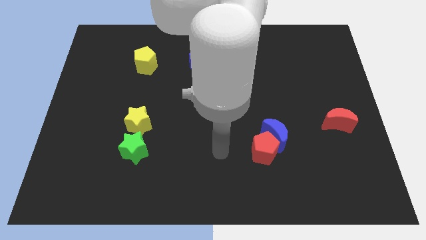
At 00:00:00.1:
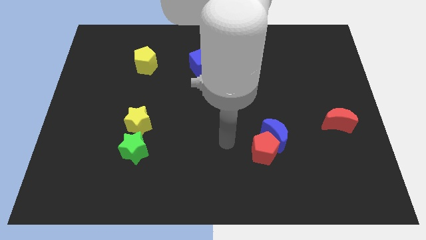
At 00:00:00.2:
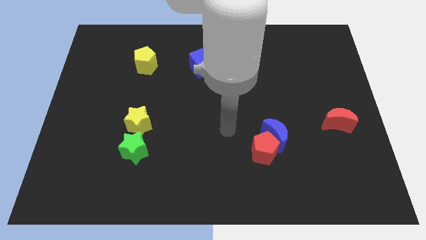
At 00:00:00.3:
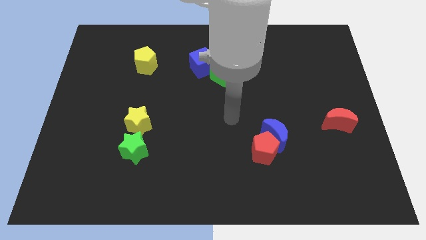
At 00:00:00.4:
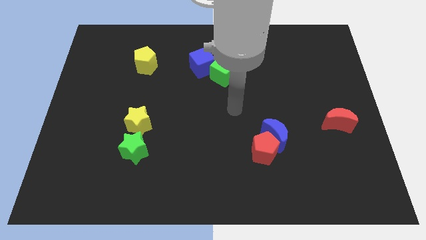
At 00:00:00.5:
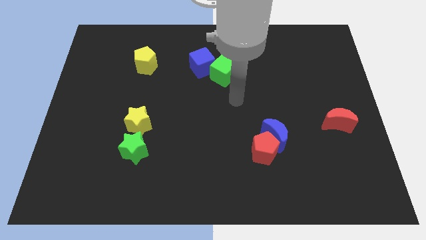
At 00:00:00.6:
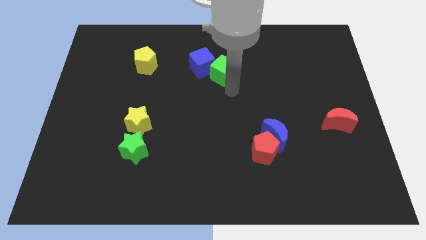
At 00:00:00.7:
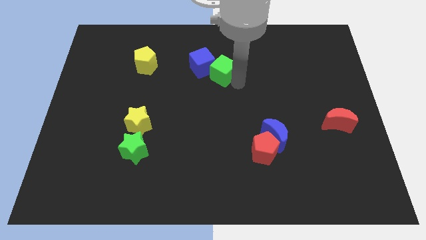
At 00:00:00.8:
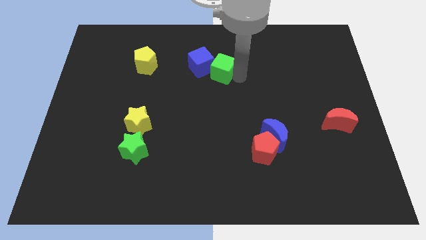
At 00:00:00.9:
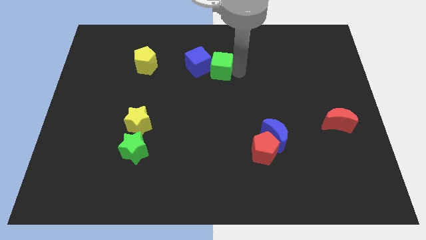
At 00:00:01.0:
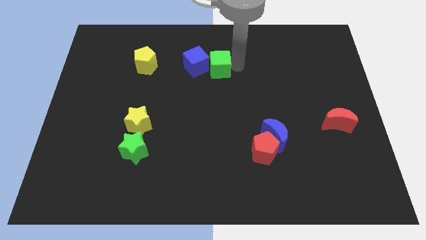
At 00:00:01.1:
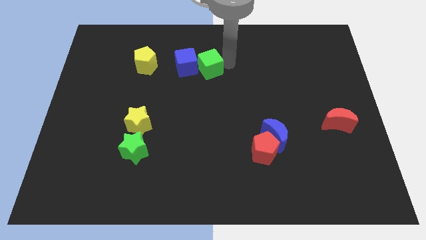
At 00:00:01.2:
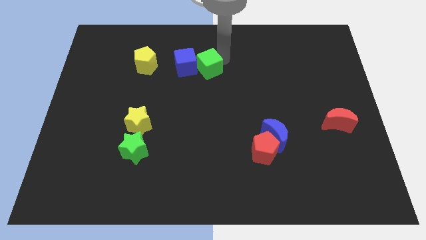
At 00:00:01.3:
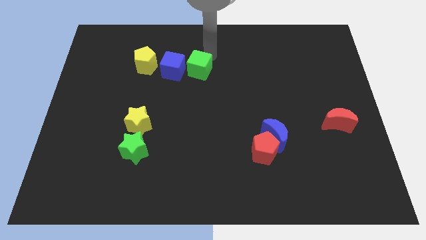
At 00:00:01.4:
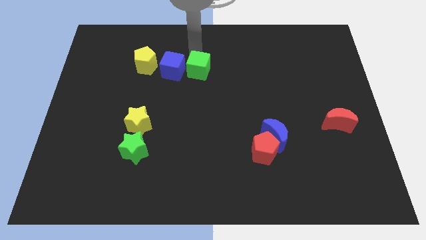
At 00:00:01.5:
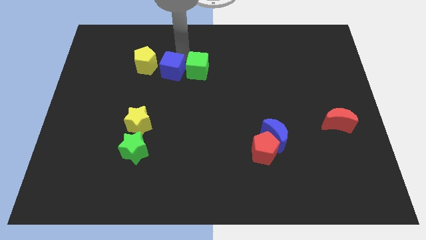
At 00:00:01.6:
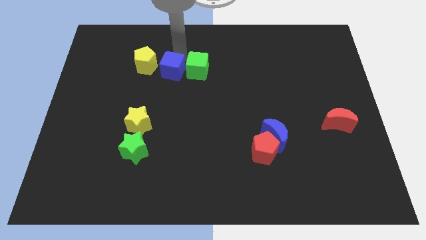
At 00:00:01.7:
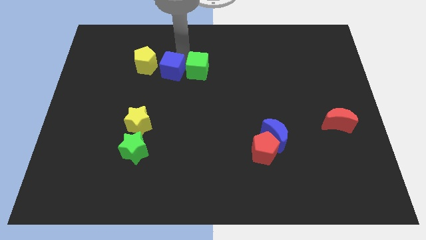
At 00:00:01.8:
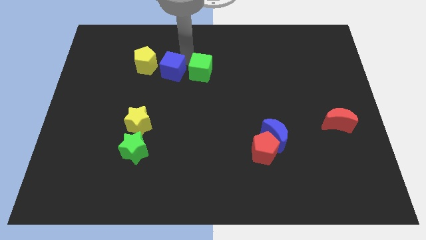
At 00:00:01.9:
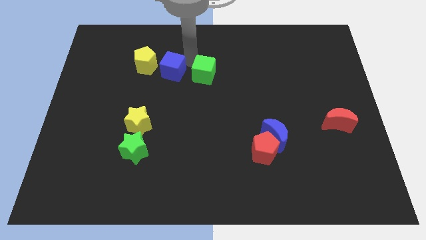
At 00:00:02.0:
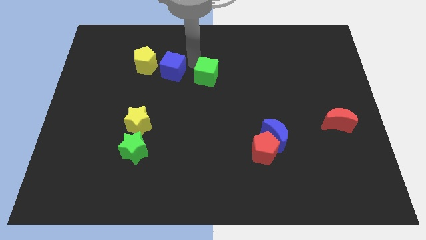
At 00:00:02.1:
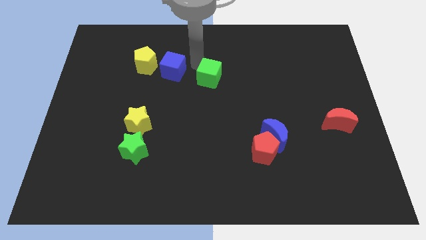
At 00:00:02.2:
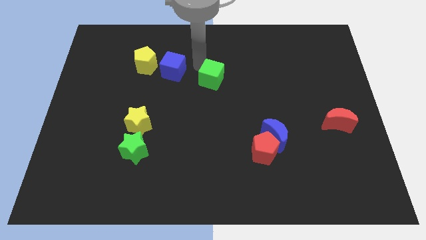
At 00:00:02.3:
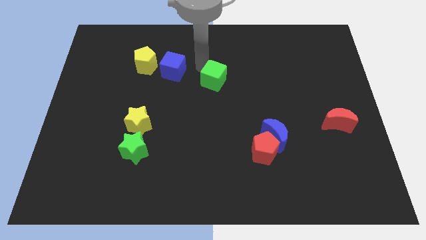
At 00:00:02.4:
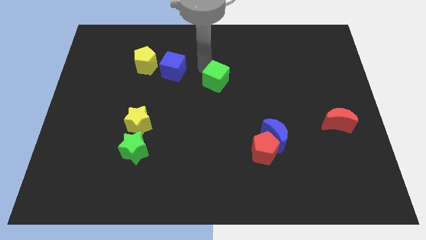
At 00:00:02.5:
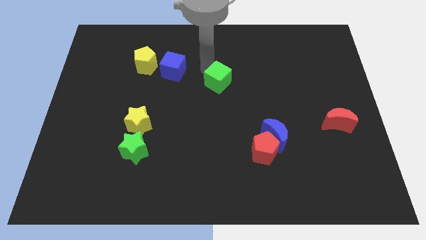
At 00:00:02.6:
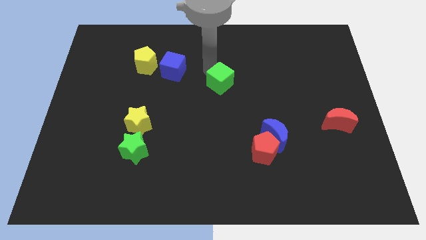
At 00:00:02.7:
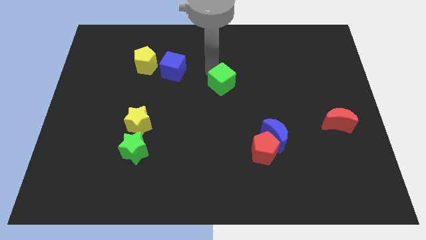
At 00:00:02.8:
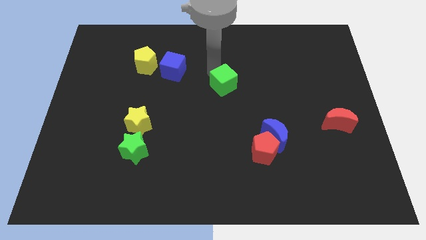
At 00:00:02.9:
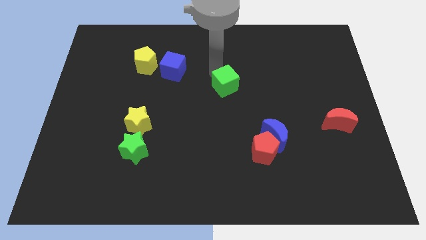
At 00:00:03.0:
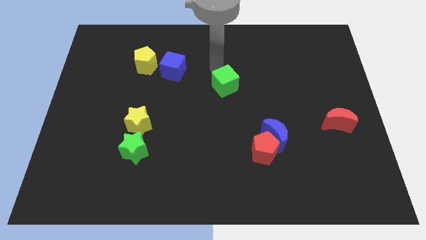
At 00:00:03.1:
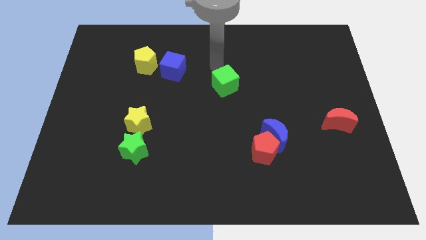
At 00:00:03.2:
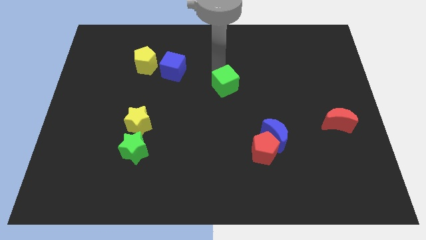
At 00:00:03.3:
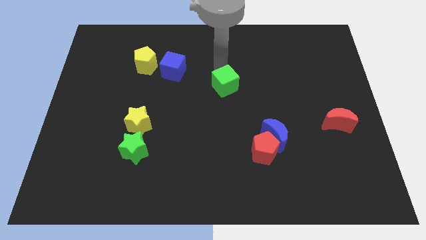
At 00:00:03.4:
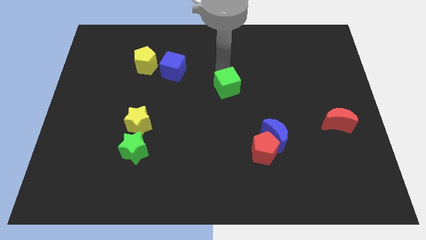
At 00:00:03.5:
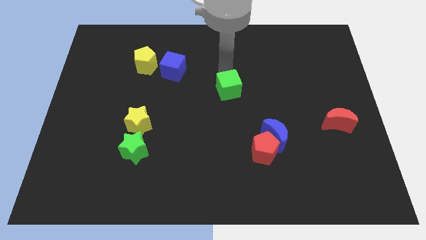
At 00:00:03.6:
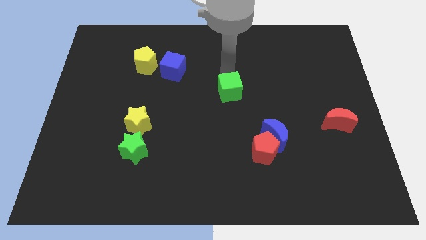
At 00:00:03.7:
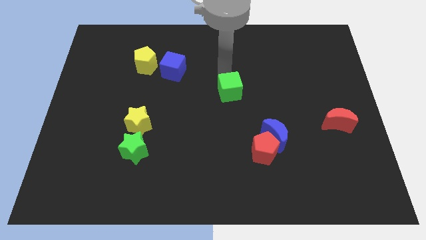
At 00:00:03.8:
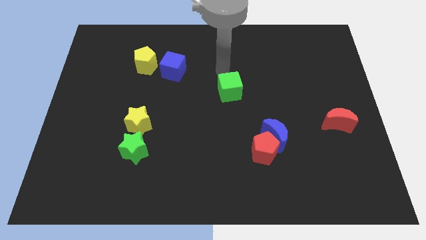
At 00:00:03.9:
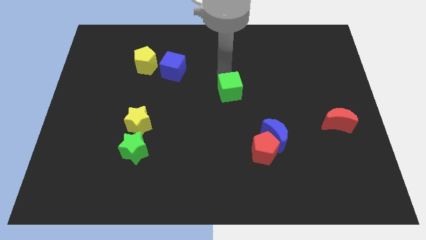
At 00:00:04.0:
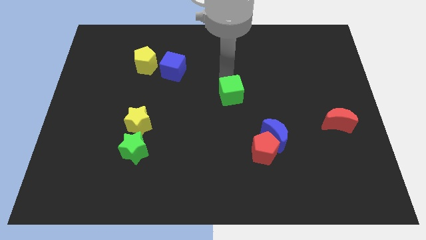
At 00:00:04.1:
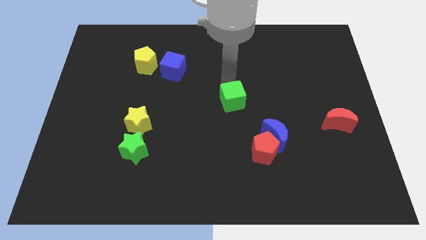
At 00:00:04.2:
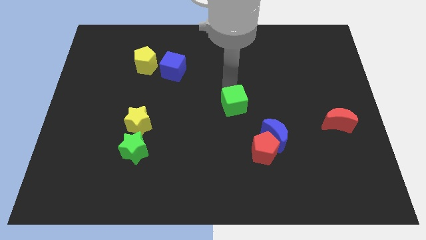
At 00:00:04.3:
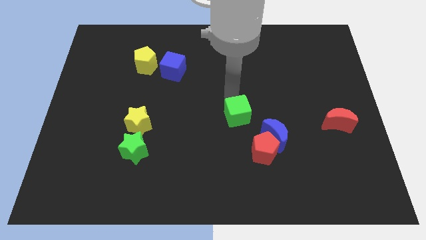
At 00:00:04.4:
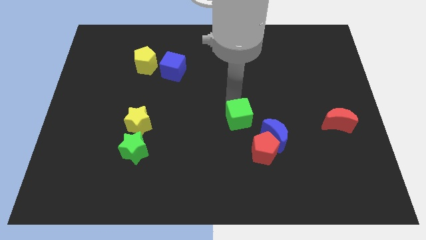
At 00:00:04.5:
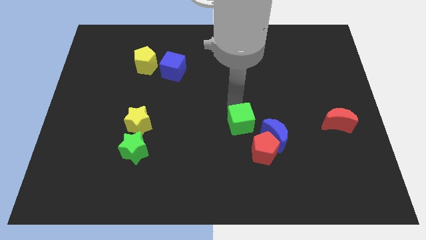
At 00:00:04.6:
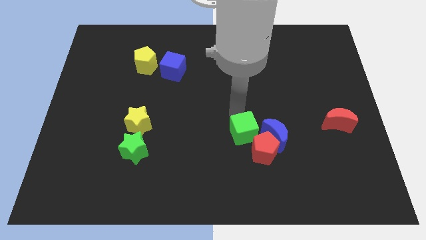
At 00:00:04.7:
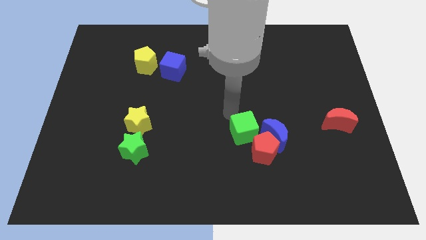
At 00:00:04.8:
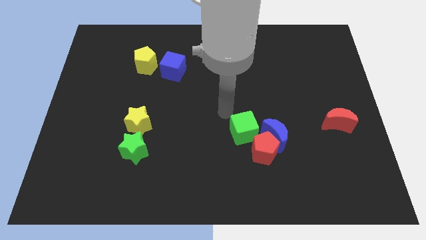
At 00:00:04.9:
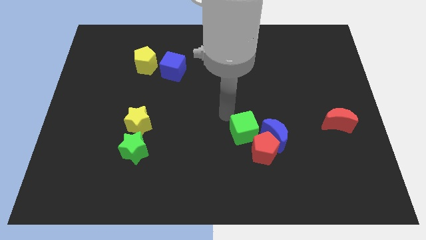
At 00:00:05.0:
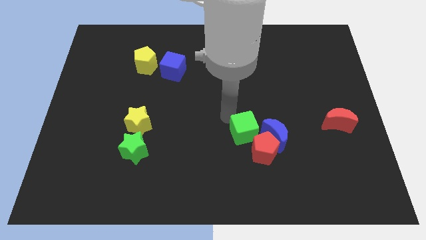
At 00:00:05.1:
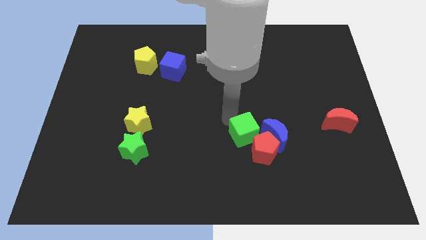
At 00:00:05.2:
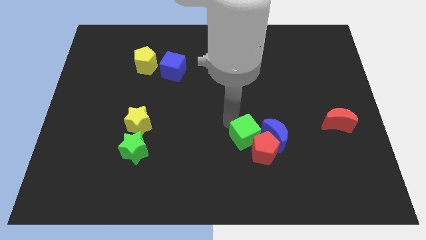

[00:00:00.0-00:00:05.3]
move the green cube towards the red pentagon
